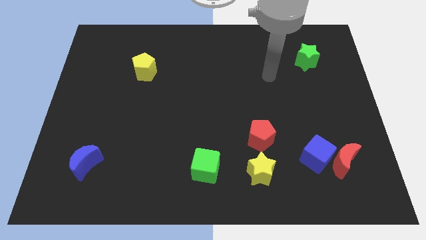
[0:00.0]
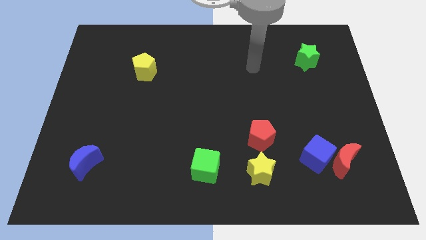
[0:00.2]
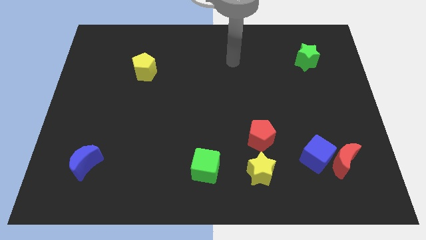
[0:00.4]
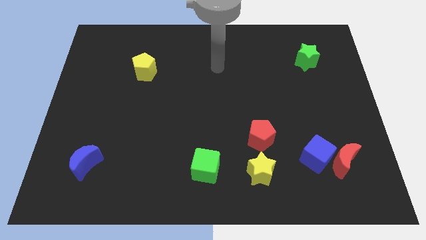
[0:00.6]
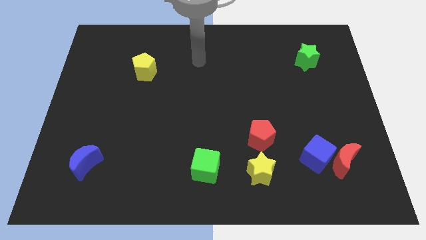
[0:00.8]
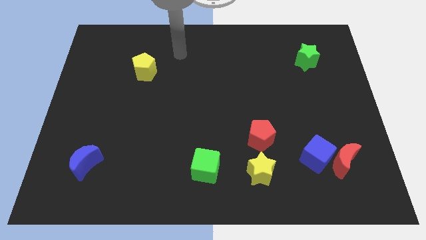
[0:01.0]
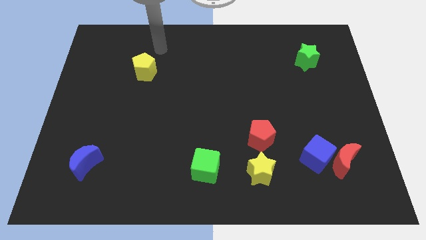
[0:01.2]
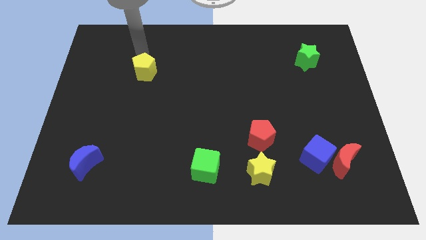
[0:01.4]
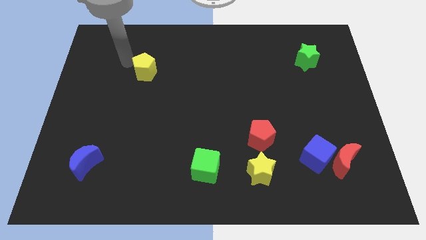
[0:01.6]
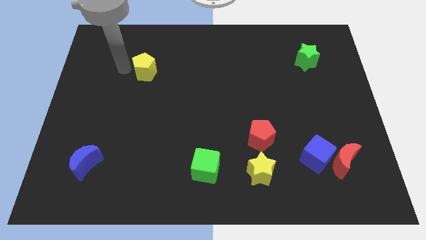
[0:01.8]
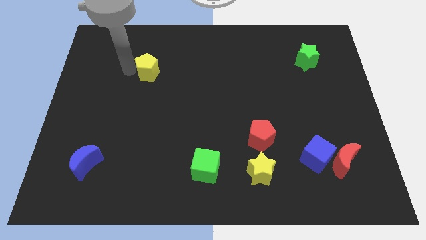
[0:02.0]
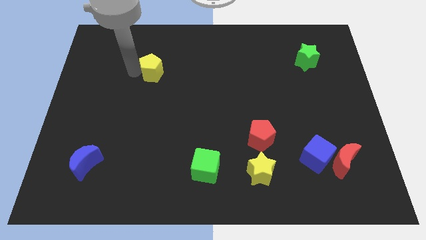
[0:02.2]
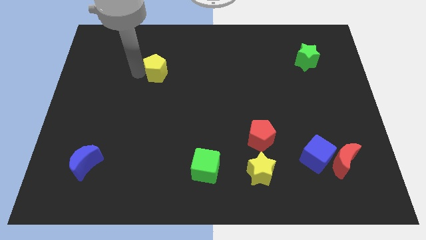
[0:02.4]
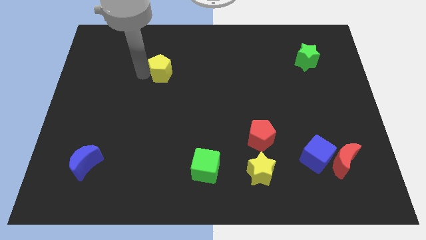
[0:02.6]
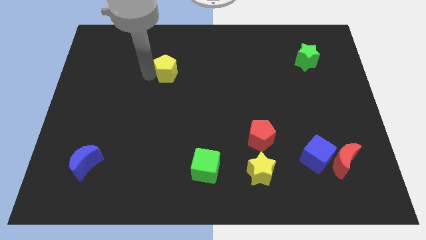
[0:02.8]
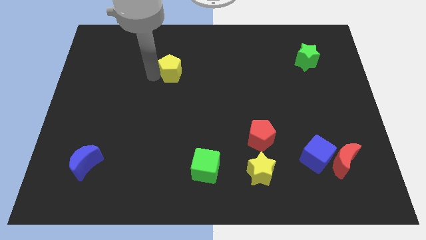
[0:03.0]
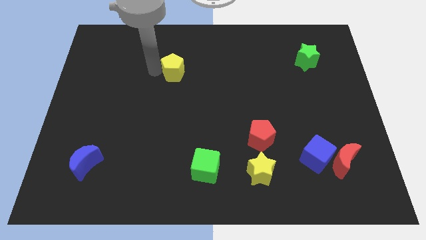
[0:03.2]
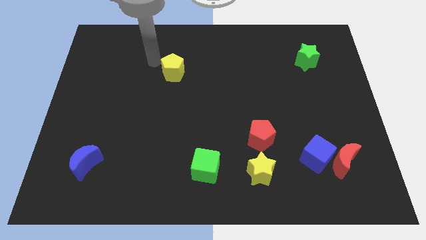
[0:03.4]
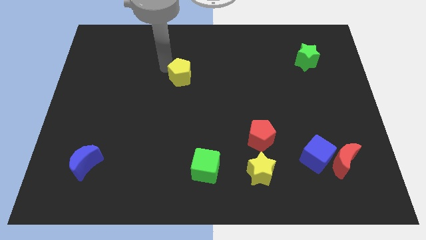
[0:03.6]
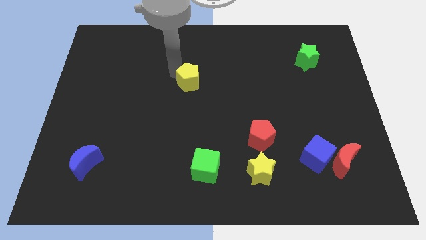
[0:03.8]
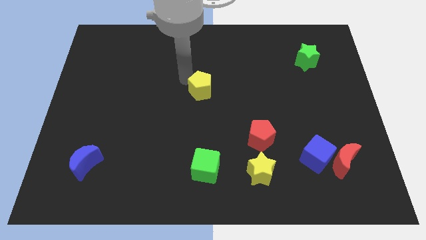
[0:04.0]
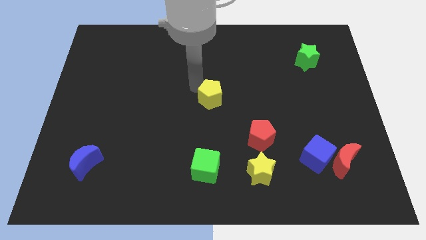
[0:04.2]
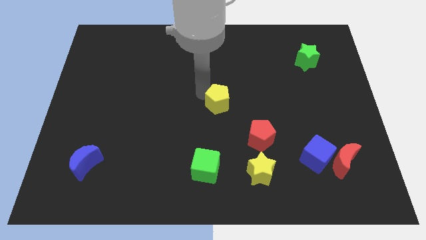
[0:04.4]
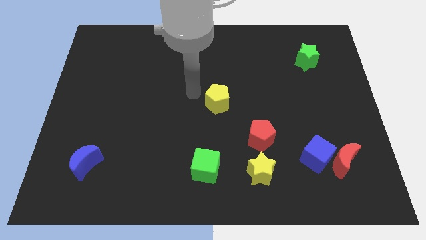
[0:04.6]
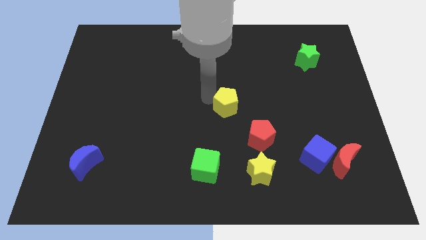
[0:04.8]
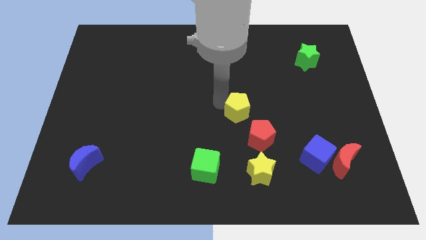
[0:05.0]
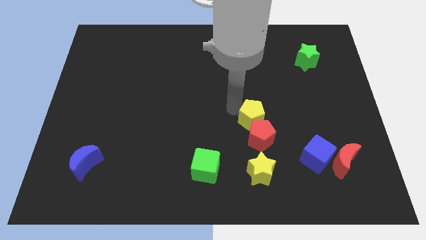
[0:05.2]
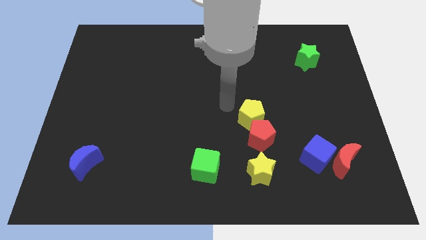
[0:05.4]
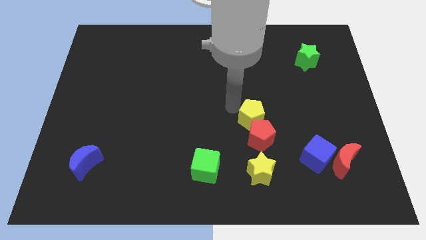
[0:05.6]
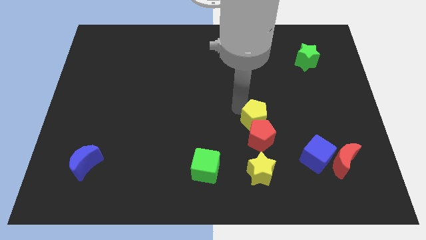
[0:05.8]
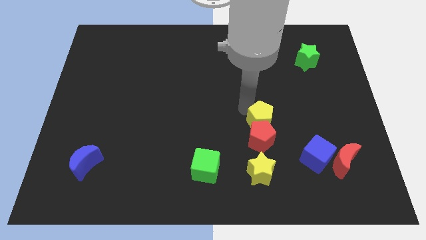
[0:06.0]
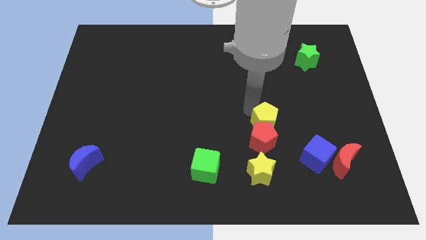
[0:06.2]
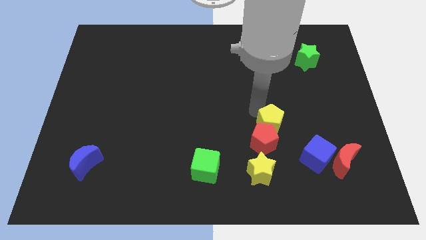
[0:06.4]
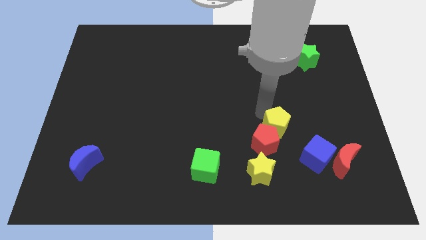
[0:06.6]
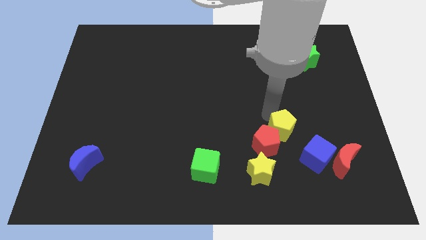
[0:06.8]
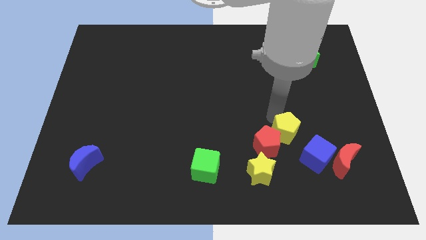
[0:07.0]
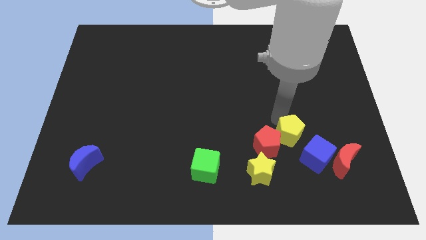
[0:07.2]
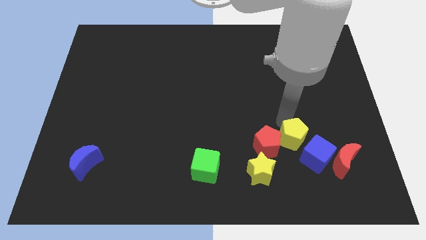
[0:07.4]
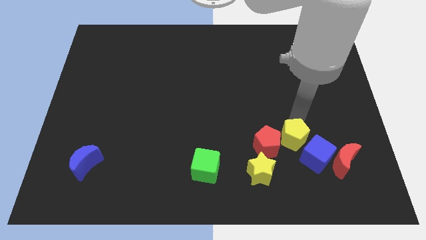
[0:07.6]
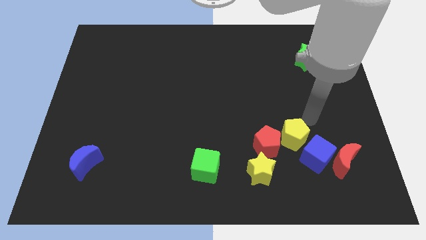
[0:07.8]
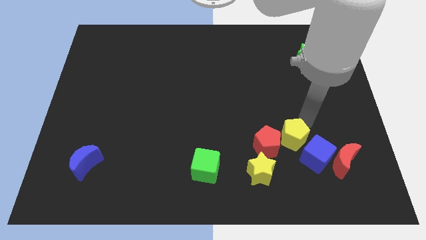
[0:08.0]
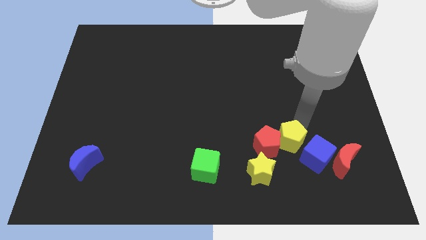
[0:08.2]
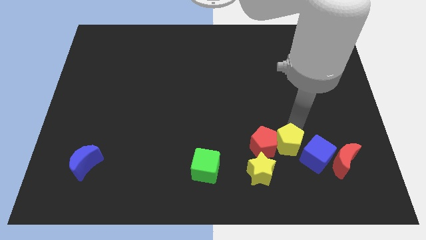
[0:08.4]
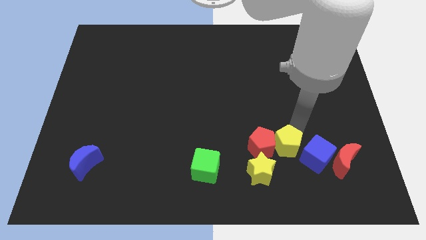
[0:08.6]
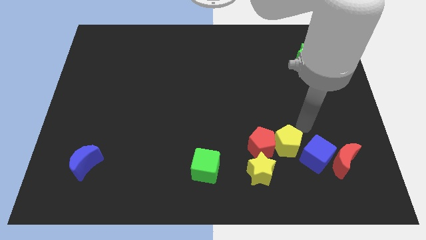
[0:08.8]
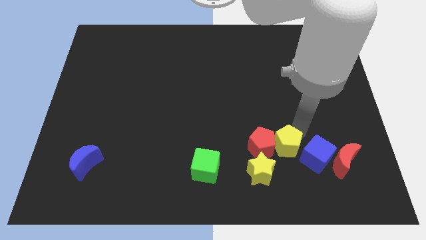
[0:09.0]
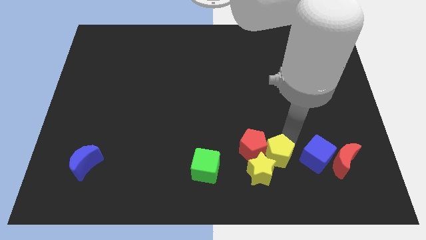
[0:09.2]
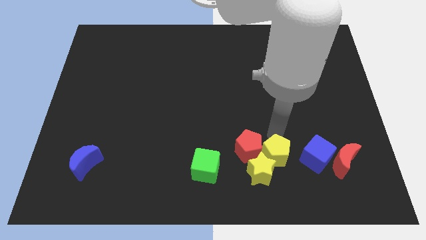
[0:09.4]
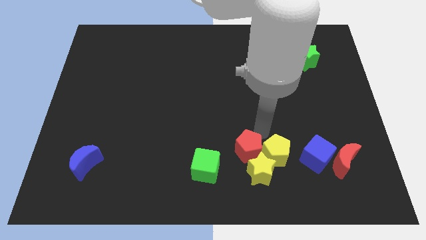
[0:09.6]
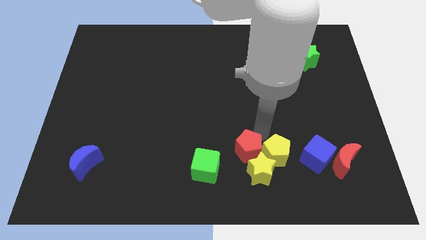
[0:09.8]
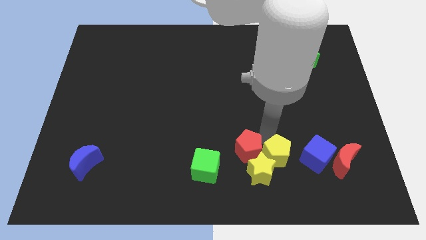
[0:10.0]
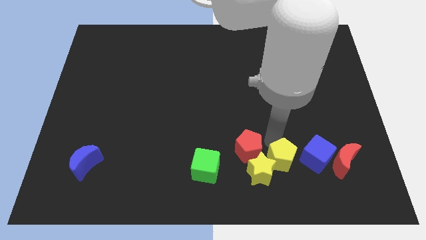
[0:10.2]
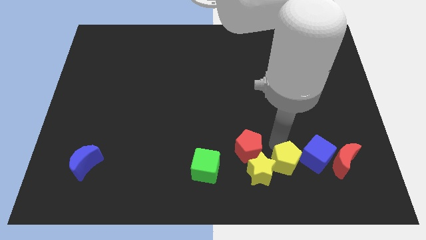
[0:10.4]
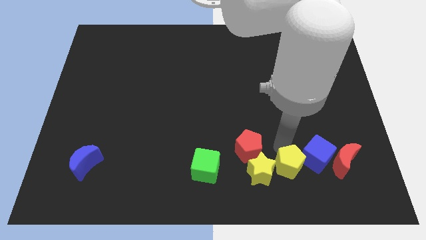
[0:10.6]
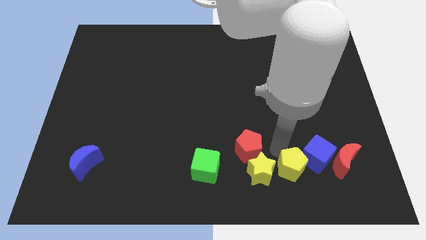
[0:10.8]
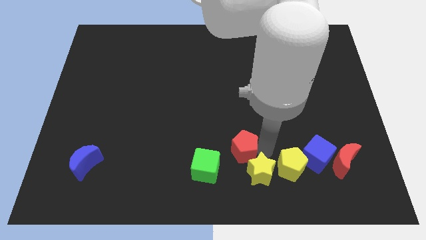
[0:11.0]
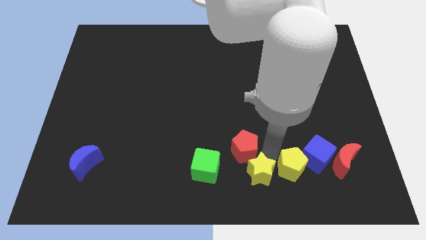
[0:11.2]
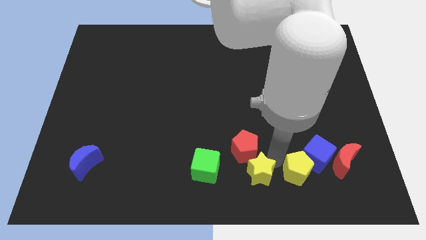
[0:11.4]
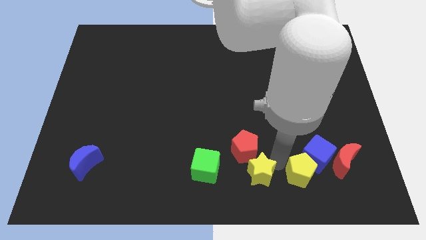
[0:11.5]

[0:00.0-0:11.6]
slide the yellow pentagon diagonally down and to the left of the red moon

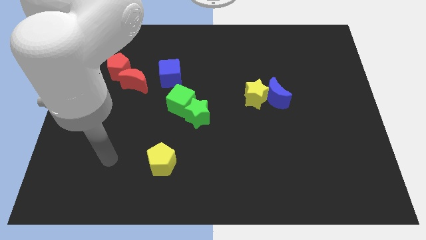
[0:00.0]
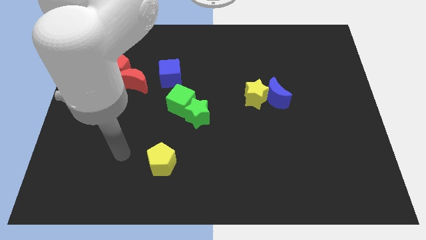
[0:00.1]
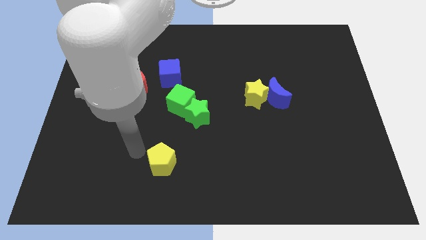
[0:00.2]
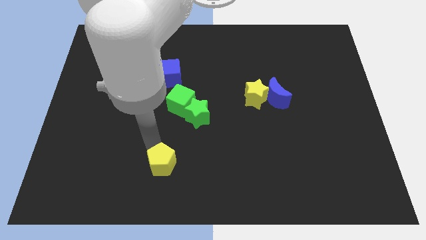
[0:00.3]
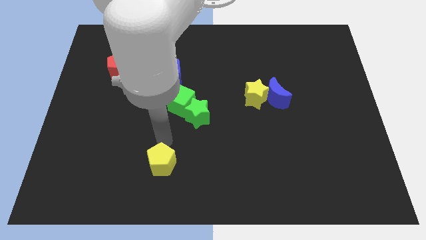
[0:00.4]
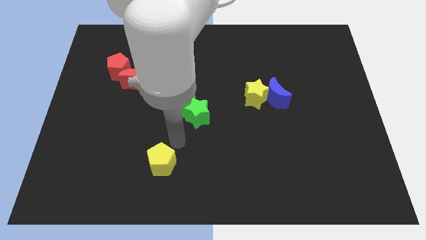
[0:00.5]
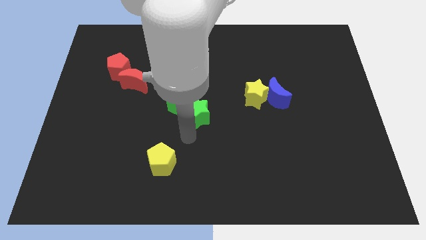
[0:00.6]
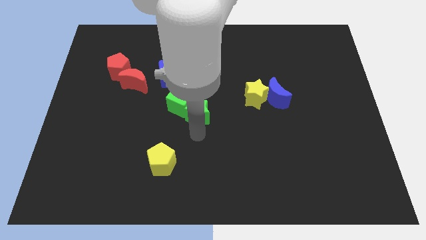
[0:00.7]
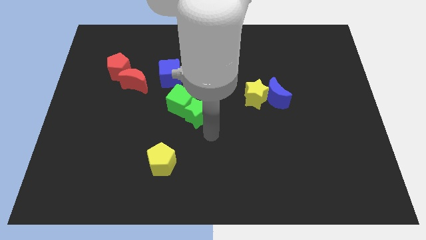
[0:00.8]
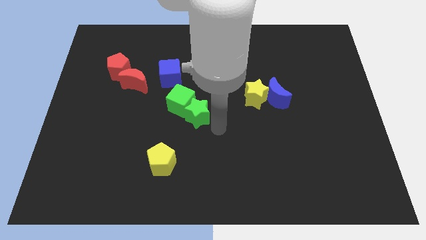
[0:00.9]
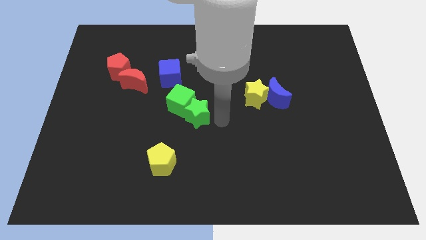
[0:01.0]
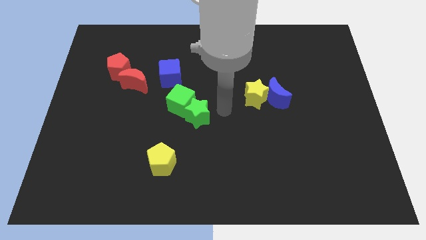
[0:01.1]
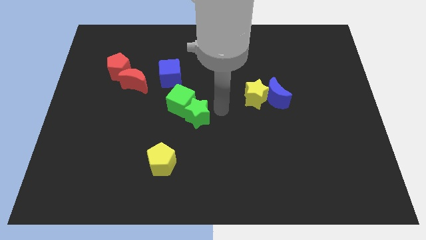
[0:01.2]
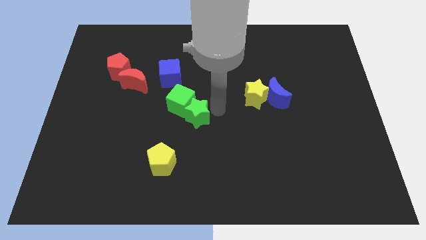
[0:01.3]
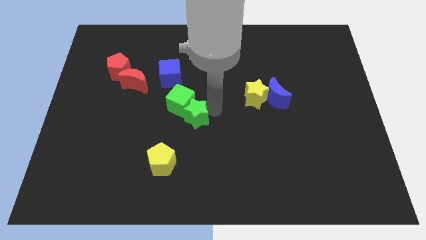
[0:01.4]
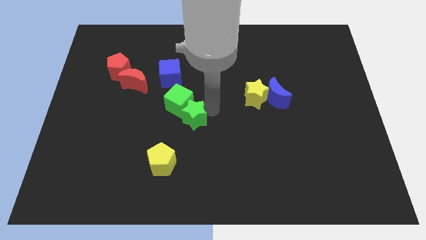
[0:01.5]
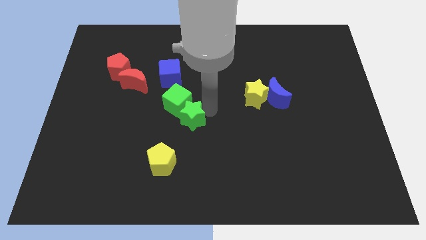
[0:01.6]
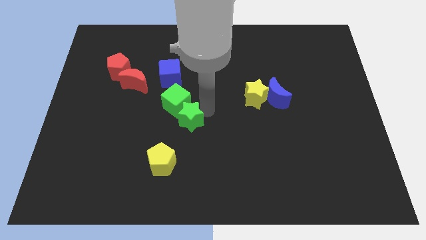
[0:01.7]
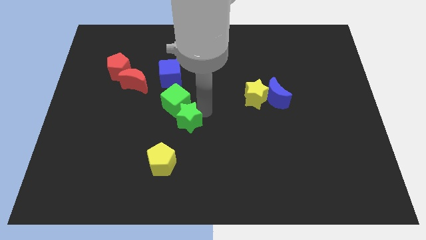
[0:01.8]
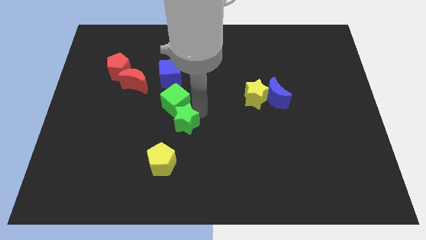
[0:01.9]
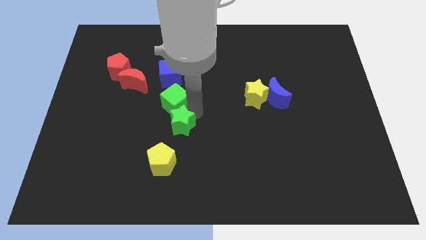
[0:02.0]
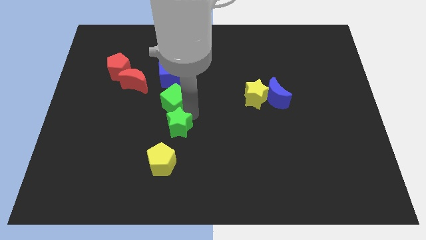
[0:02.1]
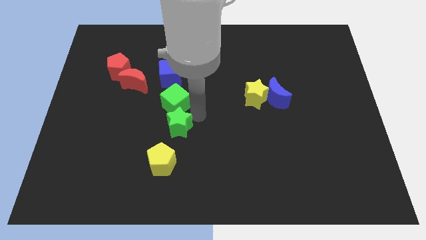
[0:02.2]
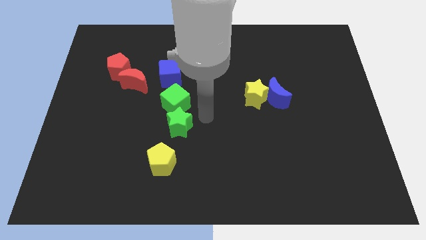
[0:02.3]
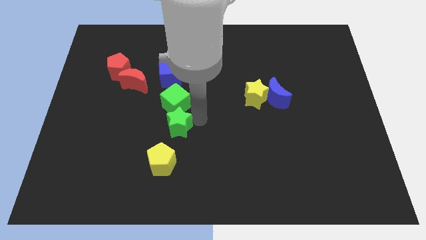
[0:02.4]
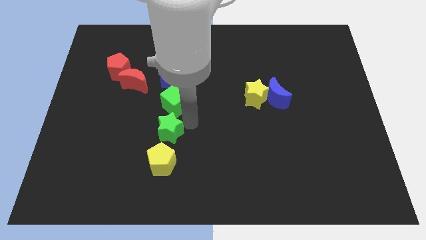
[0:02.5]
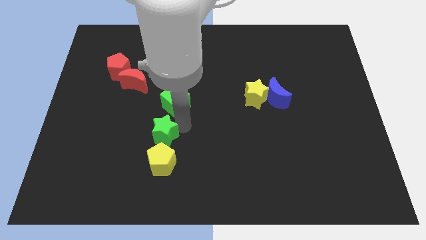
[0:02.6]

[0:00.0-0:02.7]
push the green star to the top left of the yellow pentagon

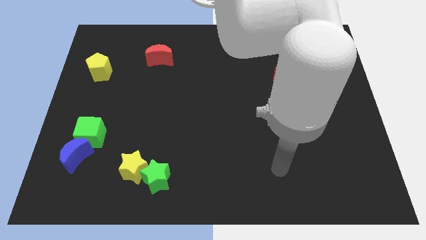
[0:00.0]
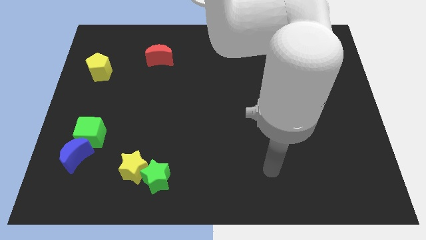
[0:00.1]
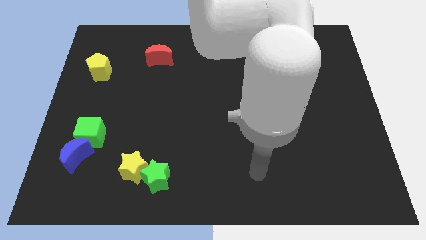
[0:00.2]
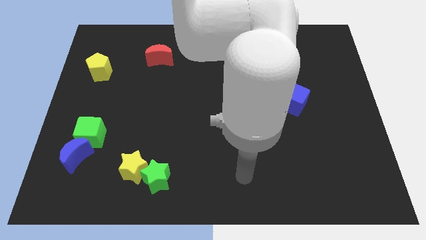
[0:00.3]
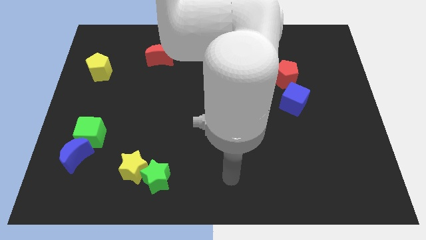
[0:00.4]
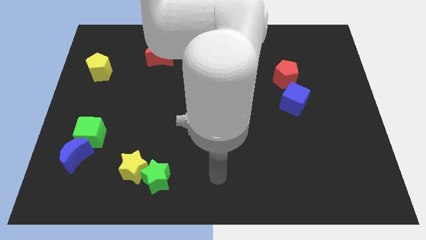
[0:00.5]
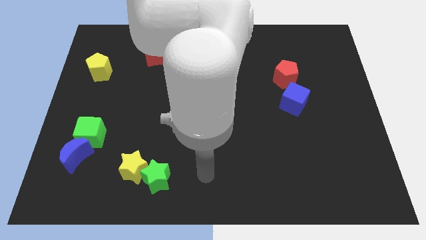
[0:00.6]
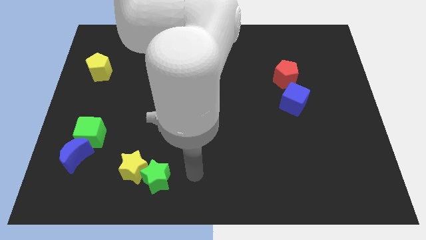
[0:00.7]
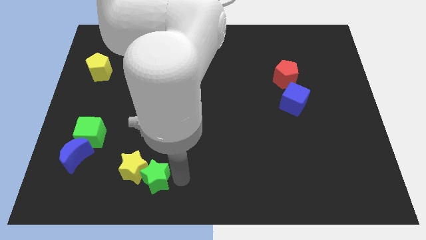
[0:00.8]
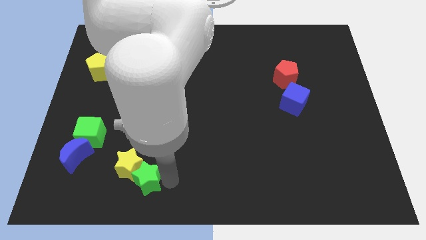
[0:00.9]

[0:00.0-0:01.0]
push the yellow star diagonally down and to the right of the green cube
